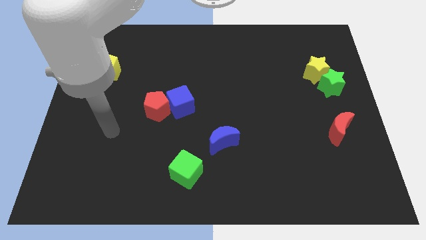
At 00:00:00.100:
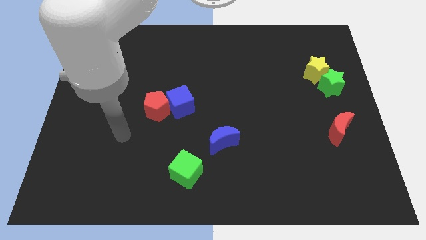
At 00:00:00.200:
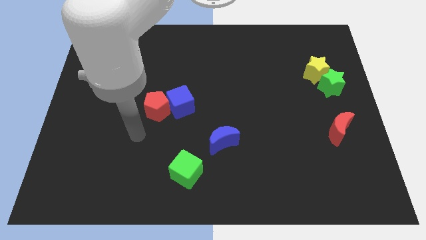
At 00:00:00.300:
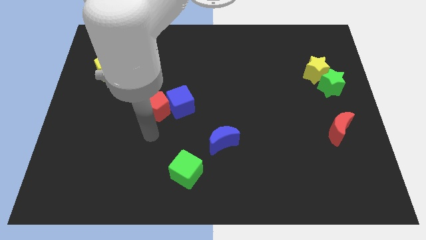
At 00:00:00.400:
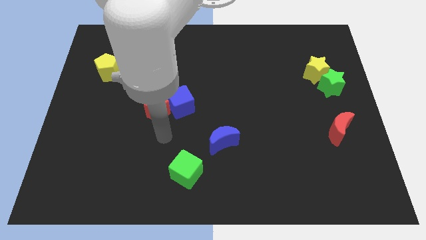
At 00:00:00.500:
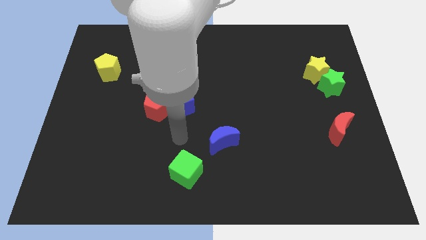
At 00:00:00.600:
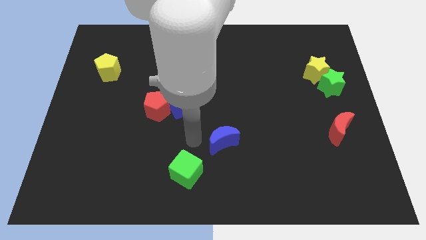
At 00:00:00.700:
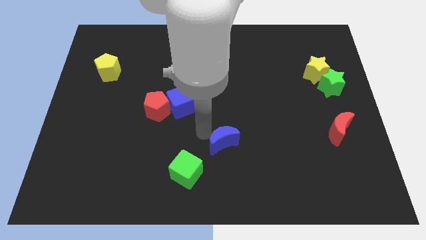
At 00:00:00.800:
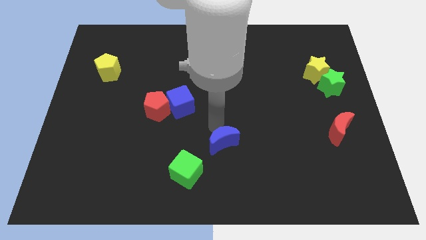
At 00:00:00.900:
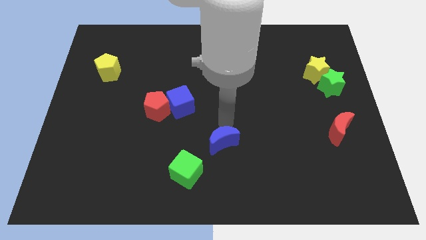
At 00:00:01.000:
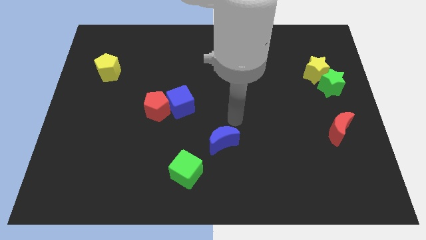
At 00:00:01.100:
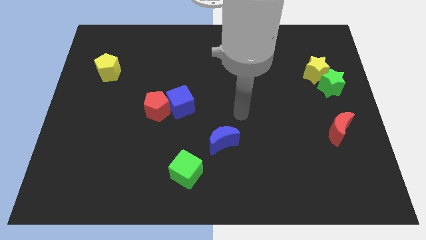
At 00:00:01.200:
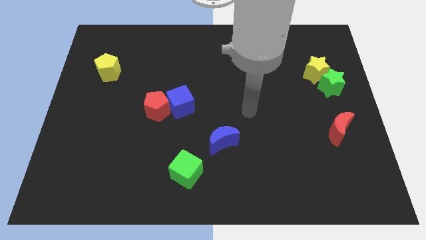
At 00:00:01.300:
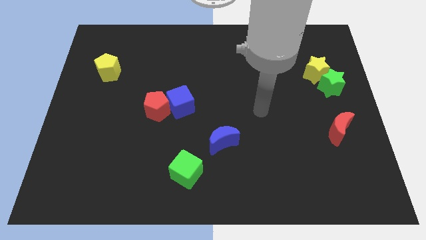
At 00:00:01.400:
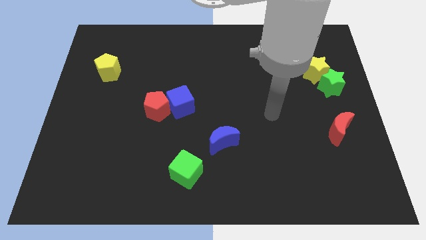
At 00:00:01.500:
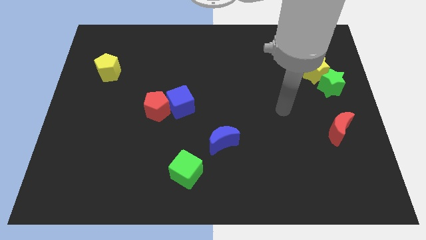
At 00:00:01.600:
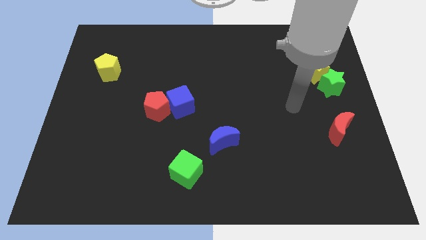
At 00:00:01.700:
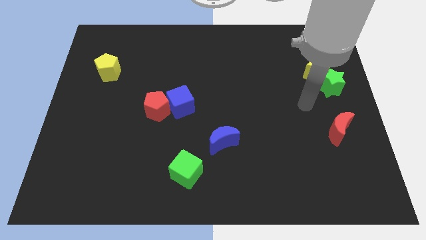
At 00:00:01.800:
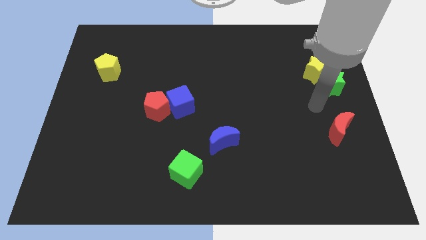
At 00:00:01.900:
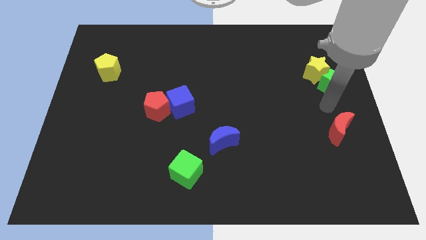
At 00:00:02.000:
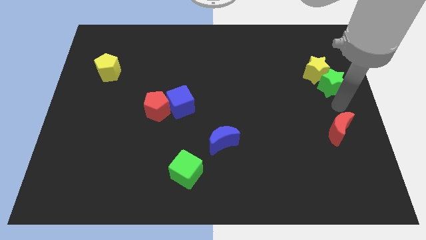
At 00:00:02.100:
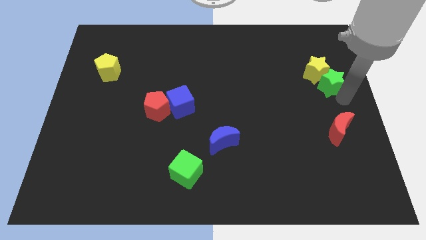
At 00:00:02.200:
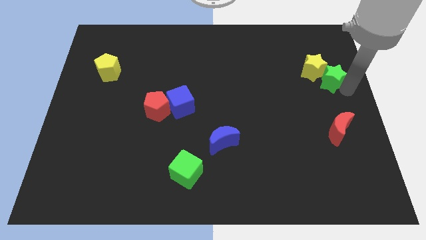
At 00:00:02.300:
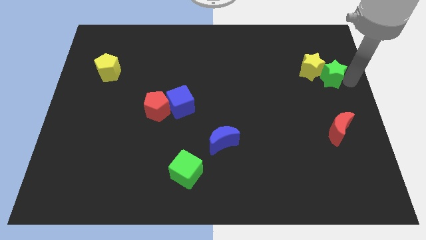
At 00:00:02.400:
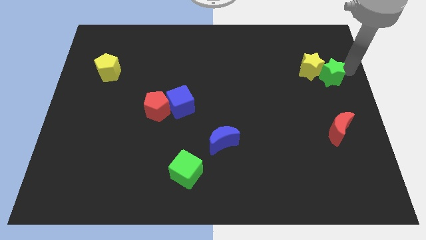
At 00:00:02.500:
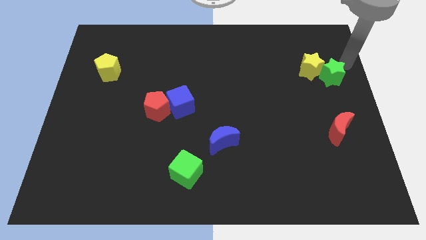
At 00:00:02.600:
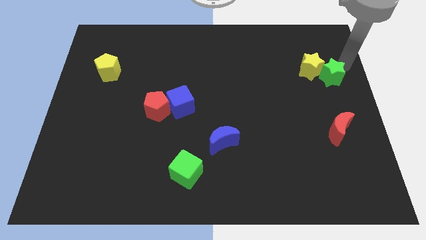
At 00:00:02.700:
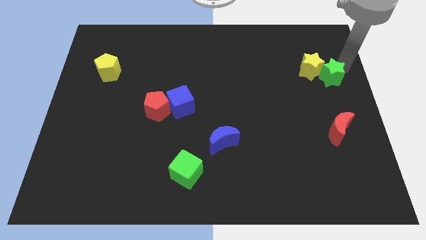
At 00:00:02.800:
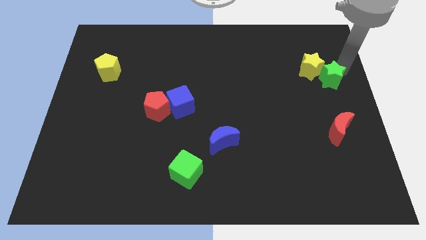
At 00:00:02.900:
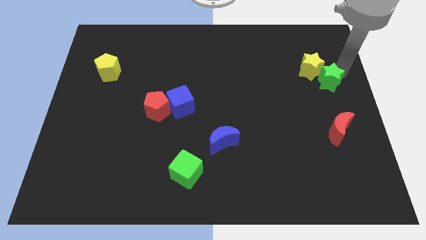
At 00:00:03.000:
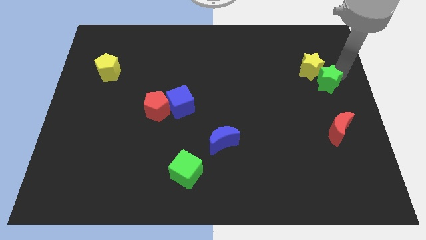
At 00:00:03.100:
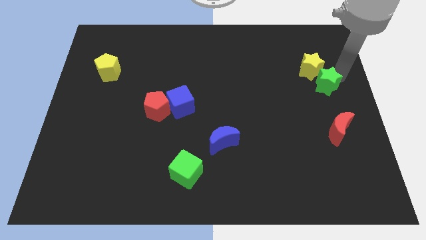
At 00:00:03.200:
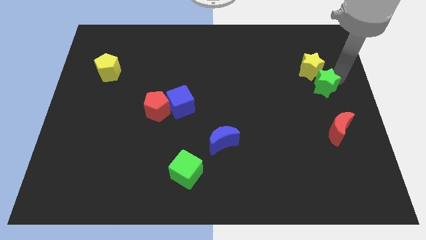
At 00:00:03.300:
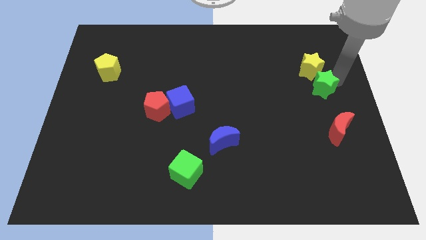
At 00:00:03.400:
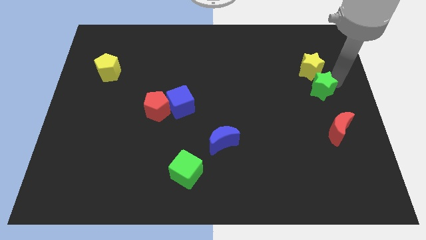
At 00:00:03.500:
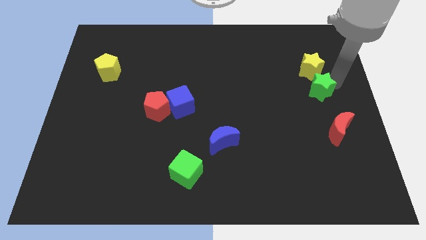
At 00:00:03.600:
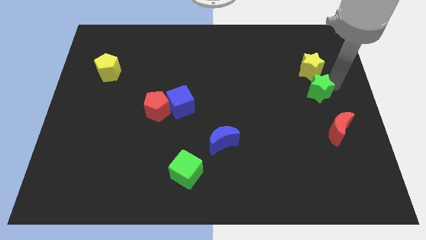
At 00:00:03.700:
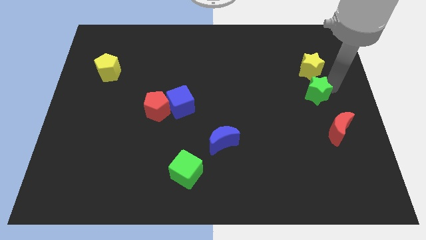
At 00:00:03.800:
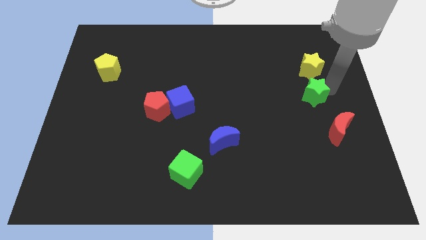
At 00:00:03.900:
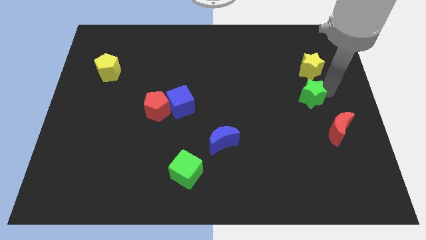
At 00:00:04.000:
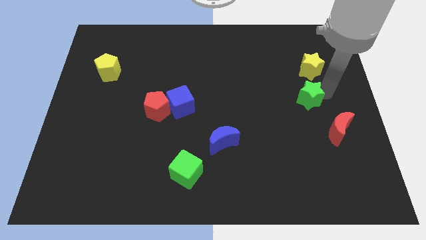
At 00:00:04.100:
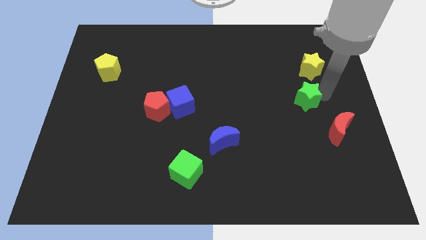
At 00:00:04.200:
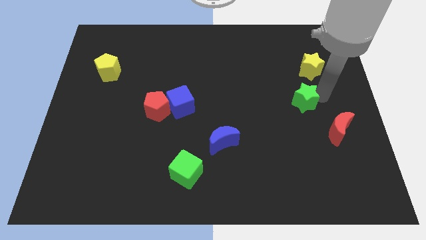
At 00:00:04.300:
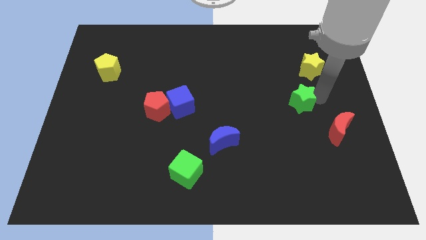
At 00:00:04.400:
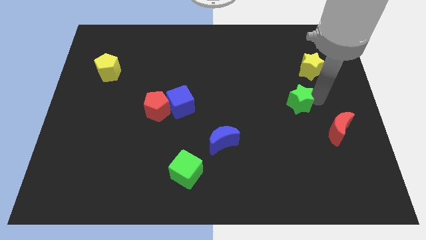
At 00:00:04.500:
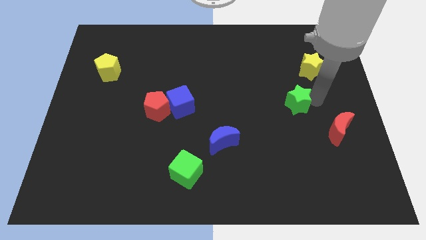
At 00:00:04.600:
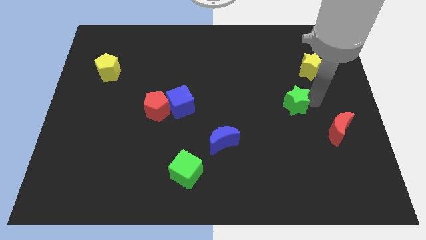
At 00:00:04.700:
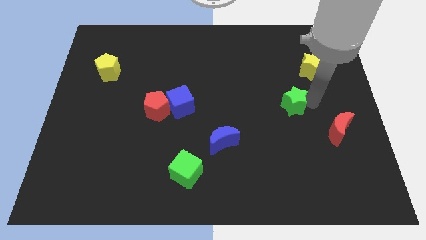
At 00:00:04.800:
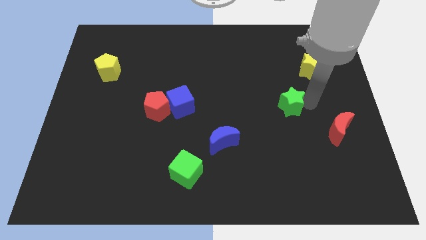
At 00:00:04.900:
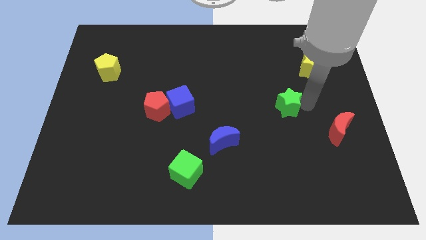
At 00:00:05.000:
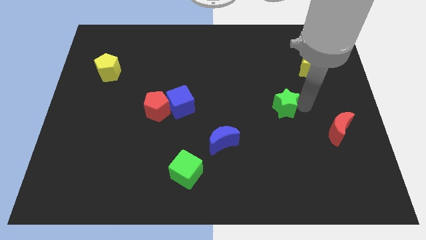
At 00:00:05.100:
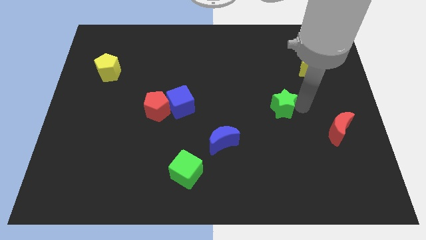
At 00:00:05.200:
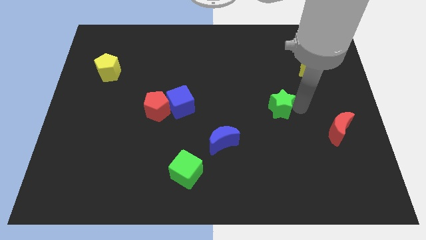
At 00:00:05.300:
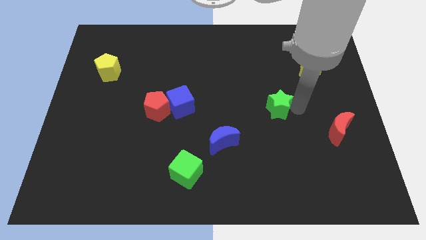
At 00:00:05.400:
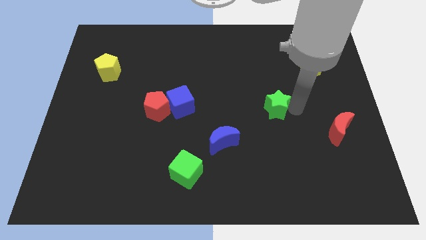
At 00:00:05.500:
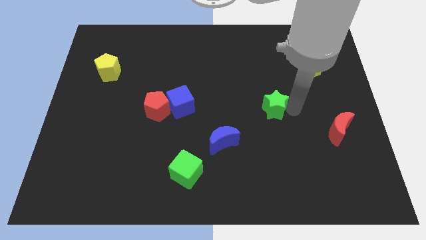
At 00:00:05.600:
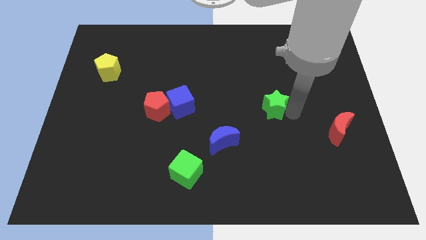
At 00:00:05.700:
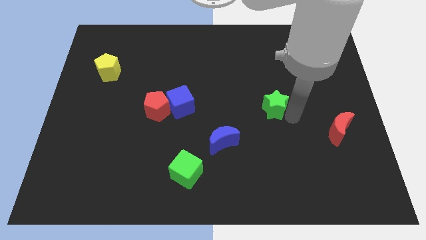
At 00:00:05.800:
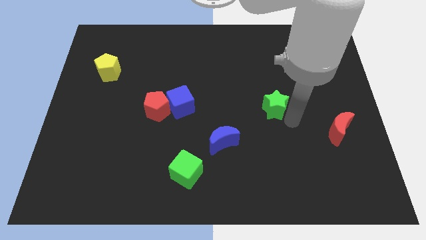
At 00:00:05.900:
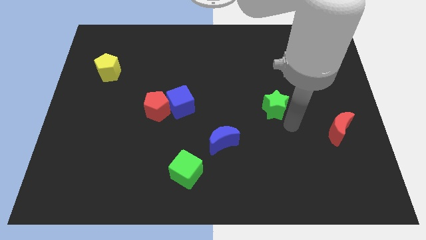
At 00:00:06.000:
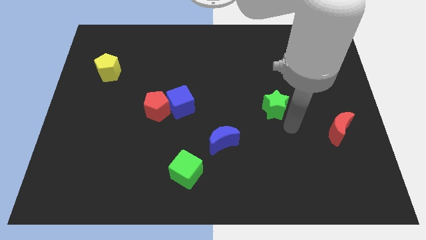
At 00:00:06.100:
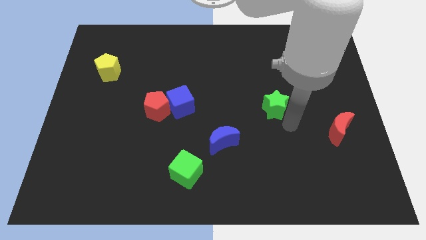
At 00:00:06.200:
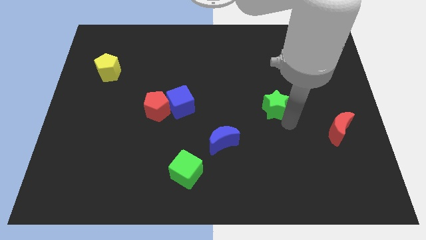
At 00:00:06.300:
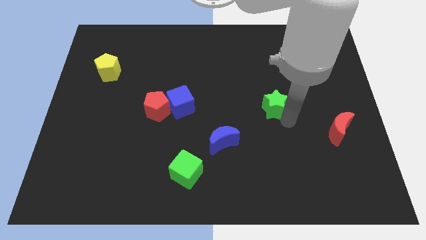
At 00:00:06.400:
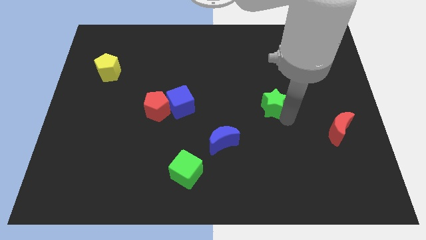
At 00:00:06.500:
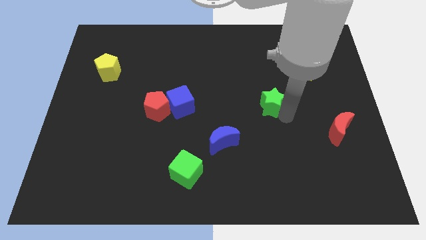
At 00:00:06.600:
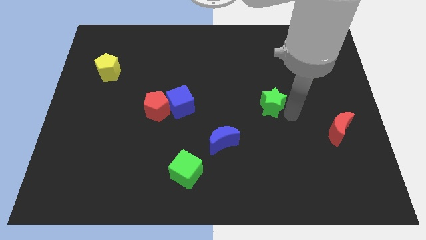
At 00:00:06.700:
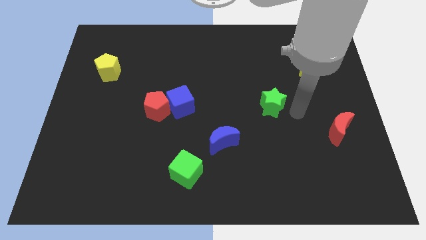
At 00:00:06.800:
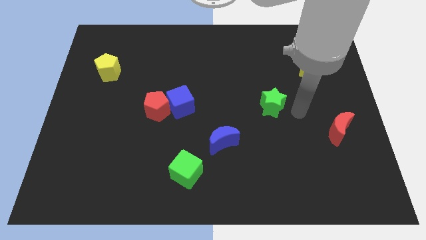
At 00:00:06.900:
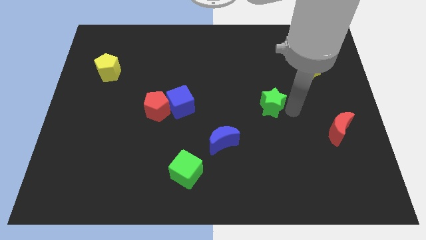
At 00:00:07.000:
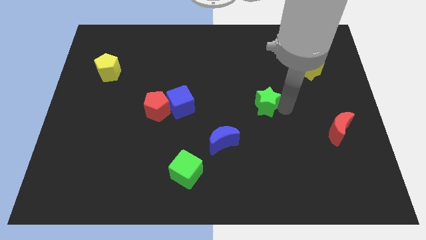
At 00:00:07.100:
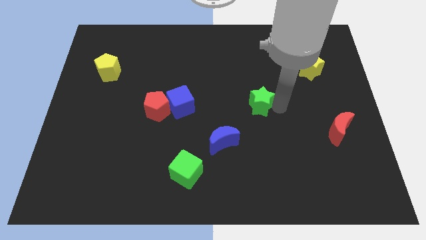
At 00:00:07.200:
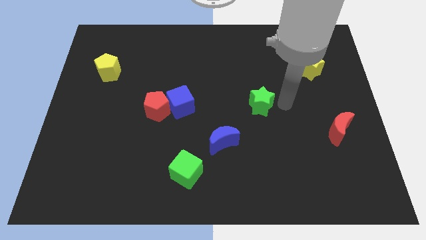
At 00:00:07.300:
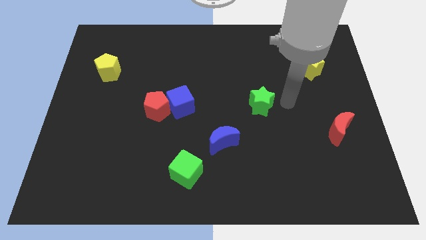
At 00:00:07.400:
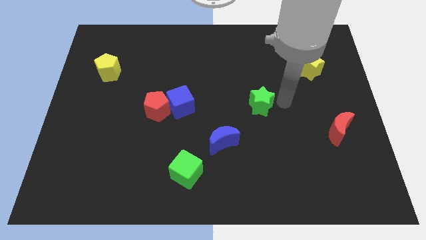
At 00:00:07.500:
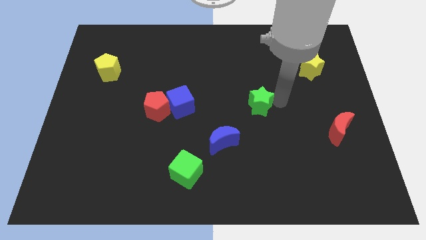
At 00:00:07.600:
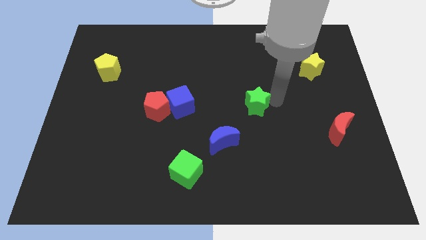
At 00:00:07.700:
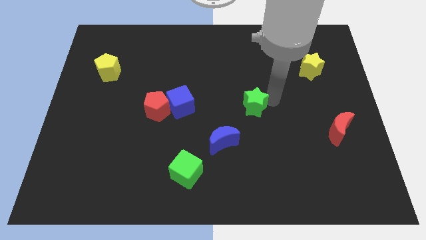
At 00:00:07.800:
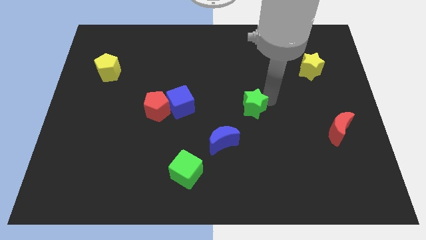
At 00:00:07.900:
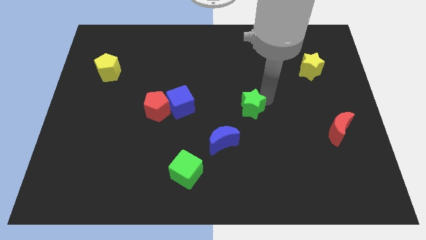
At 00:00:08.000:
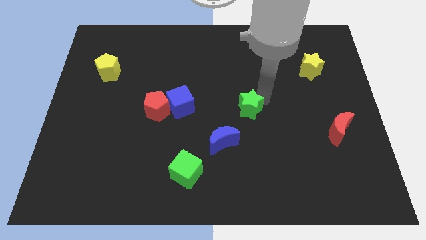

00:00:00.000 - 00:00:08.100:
slide the green star to the right side of the blue cube
